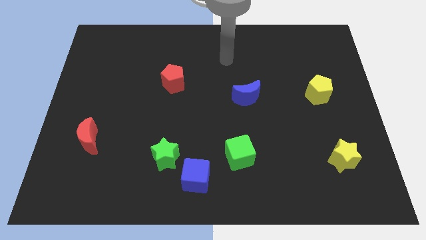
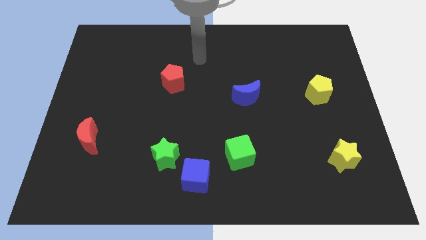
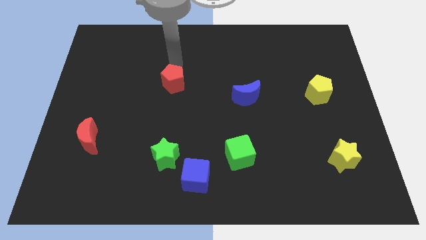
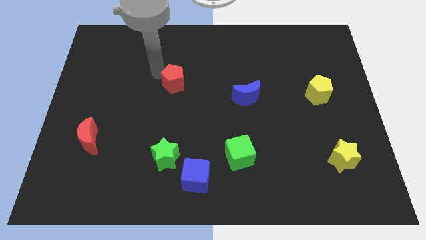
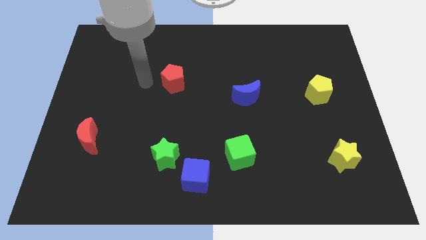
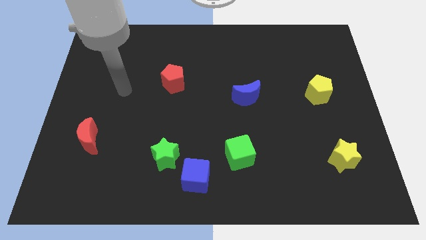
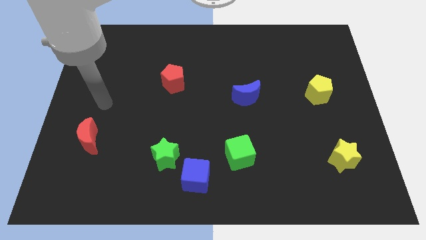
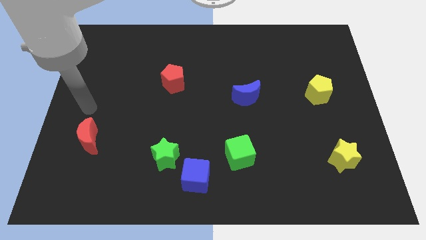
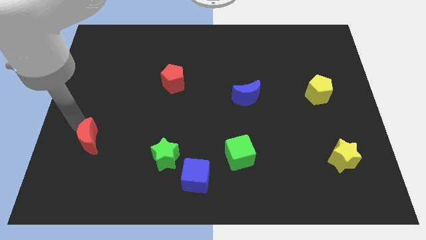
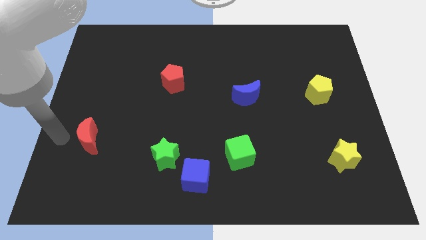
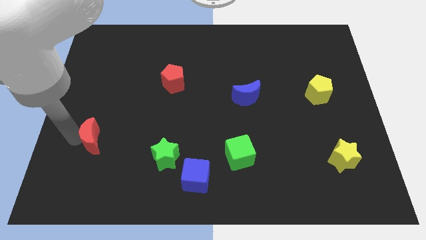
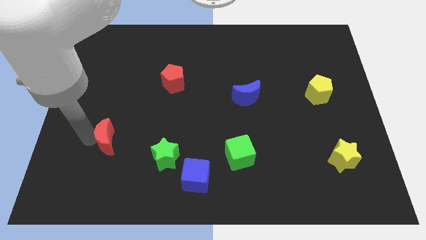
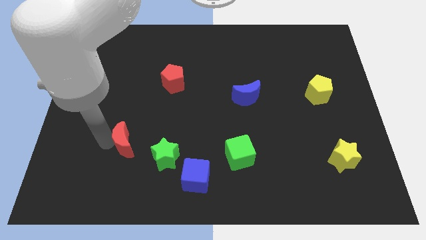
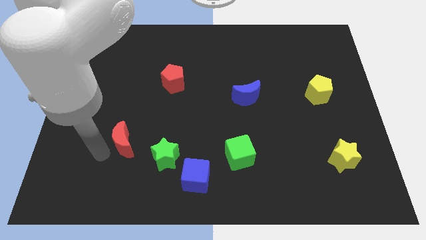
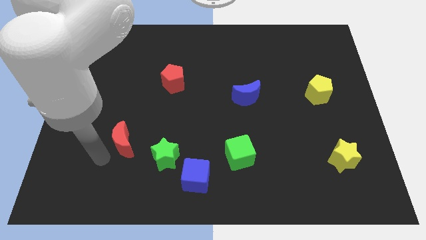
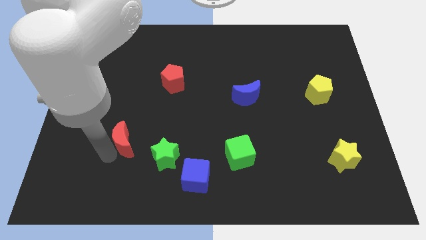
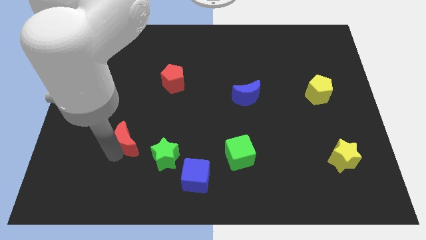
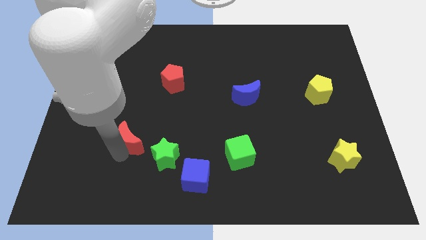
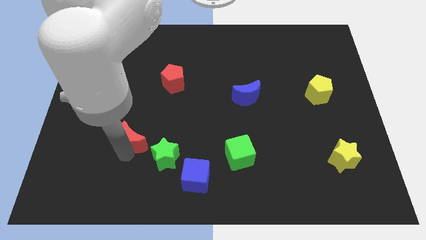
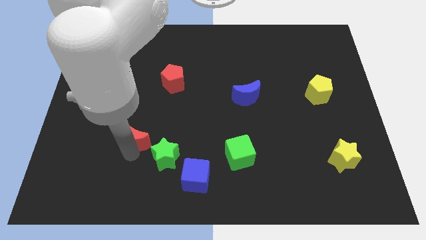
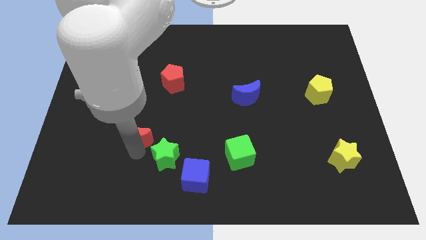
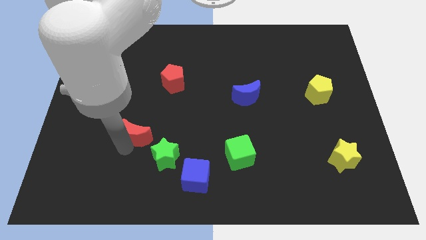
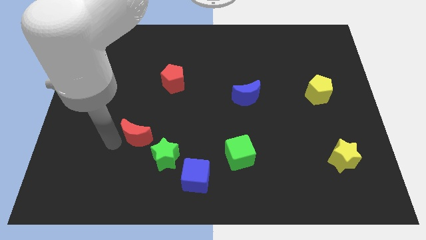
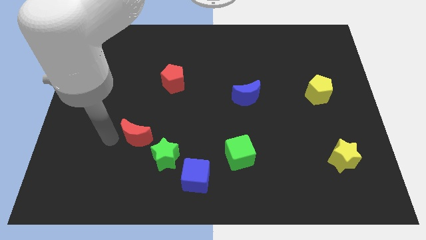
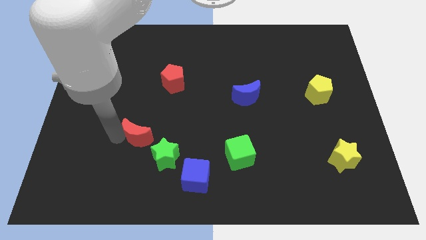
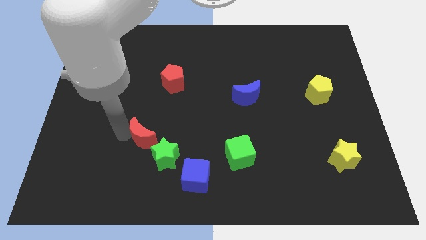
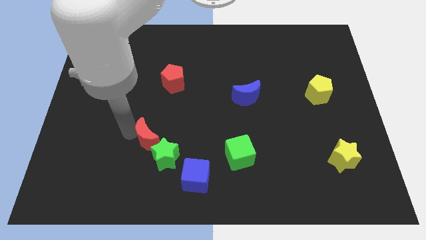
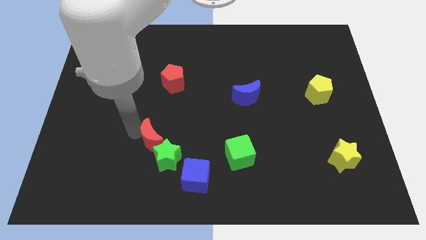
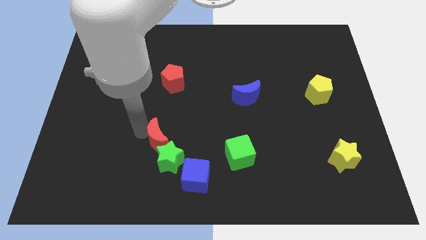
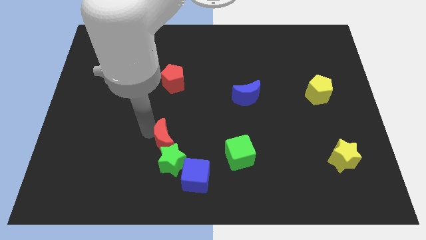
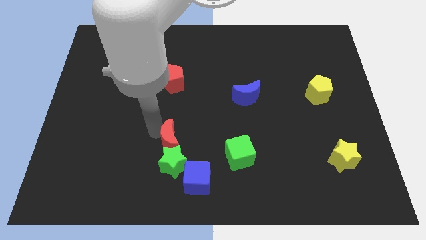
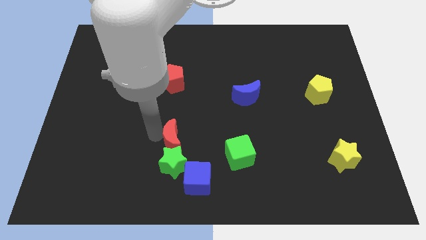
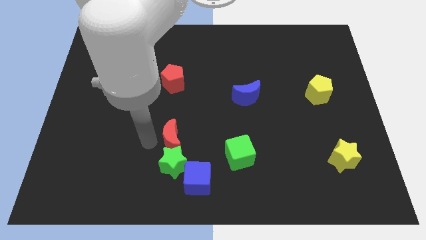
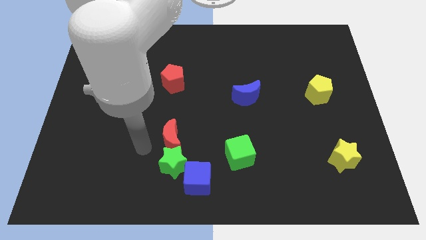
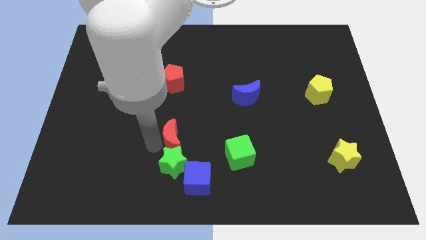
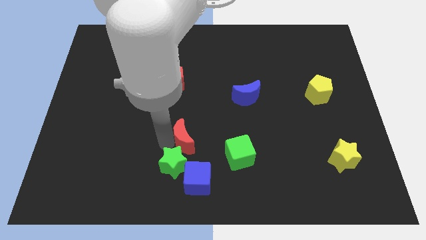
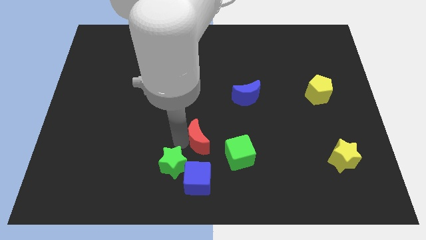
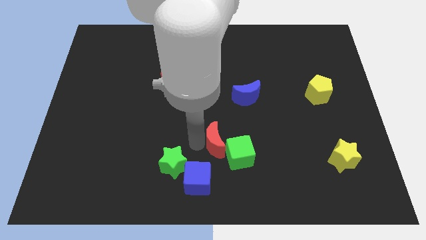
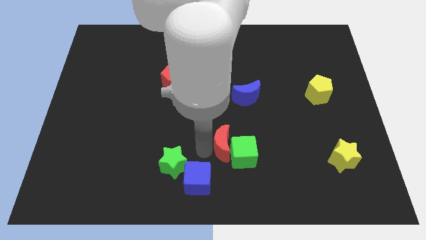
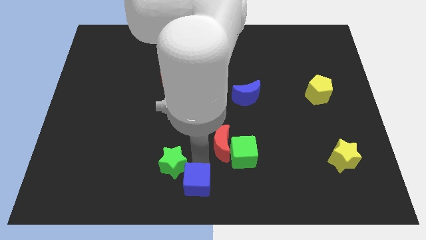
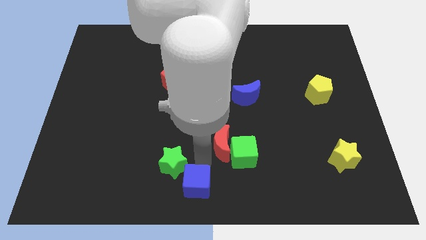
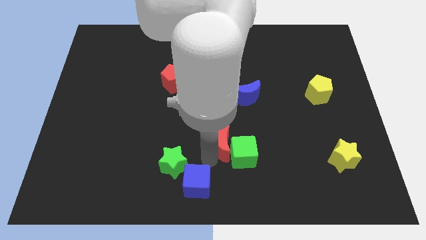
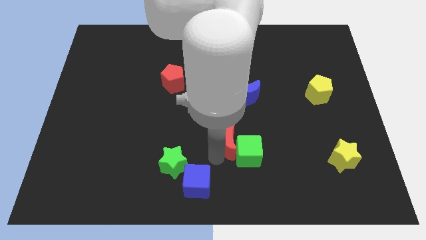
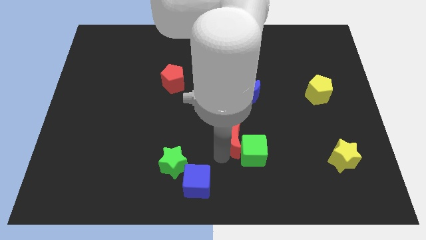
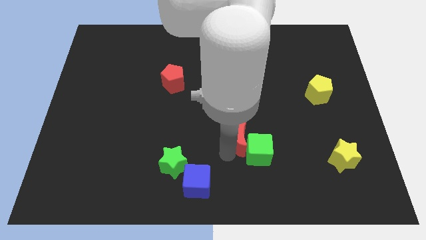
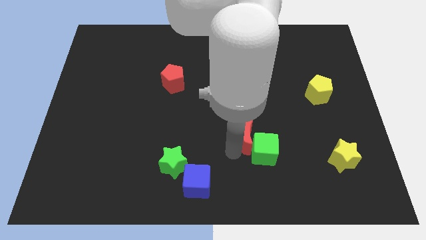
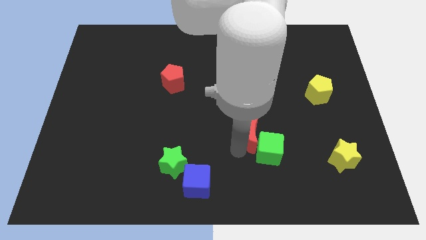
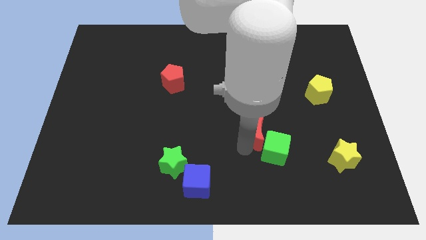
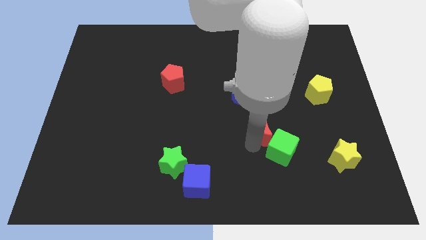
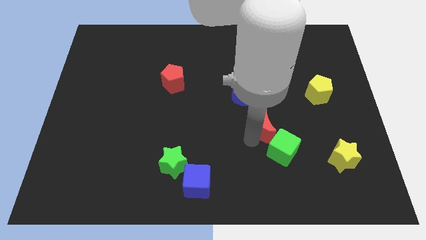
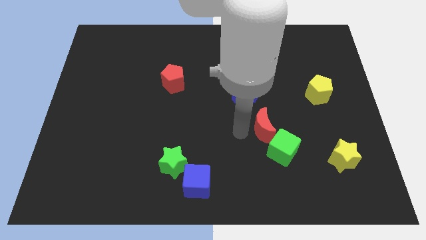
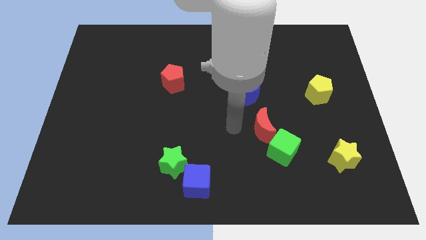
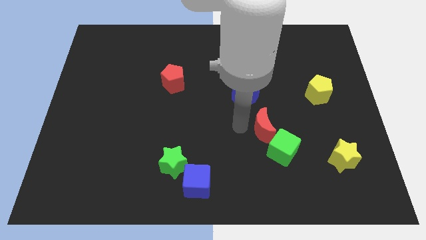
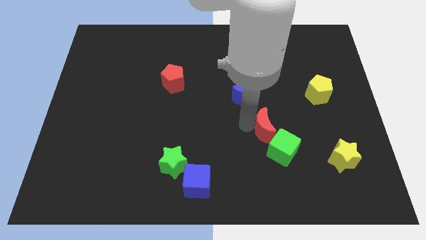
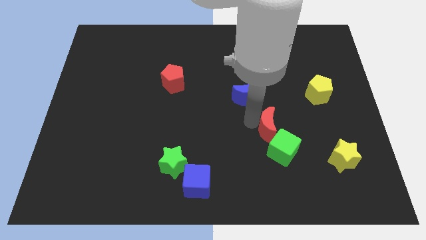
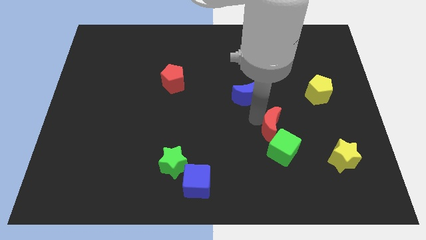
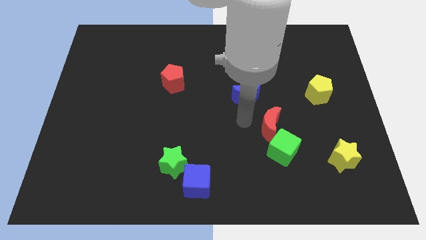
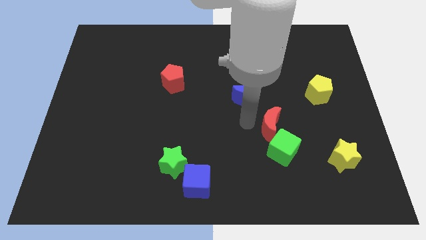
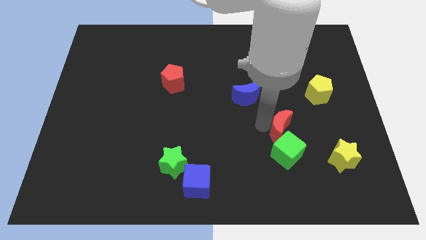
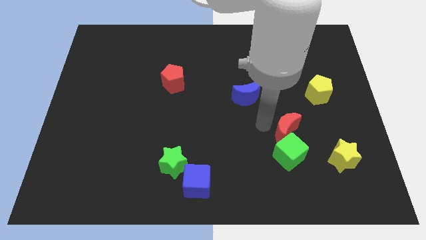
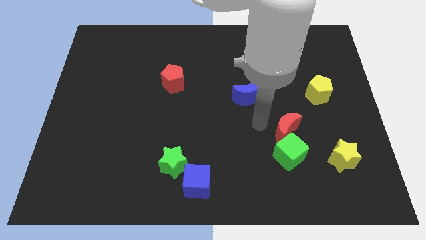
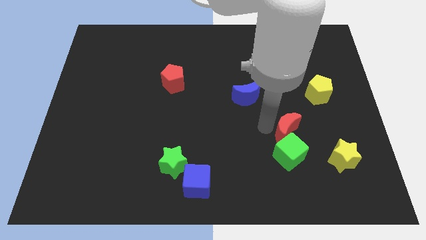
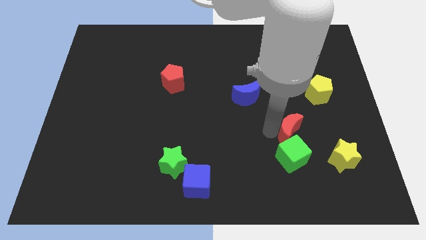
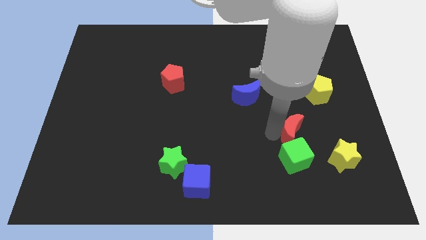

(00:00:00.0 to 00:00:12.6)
put the red moon to the top left of the yellow star
